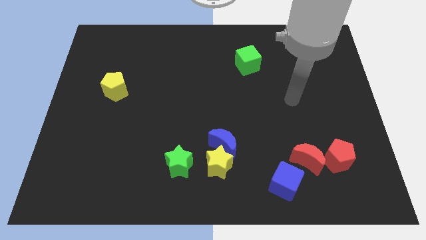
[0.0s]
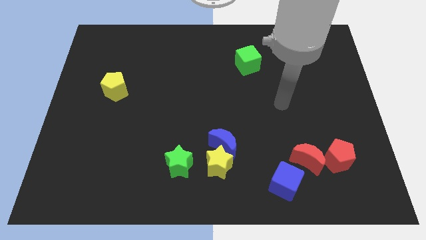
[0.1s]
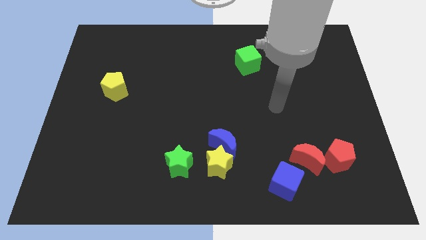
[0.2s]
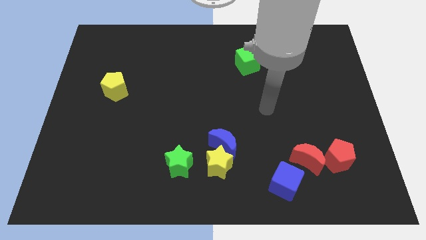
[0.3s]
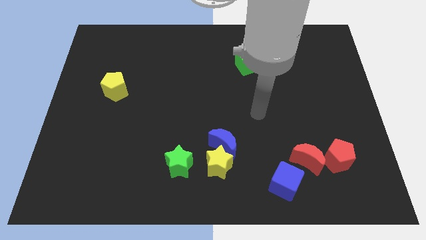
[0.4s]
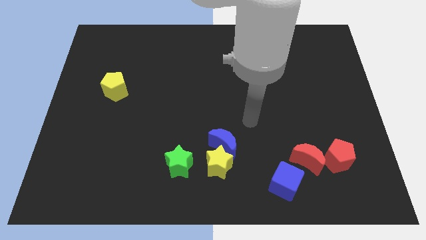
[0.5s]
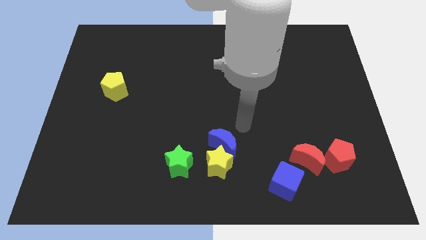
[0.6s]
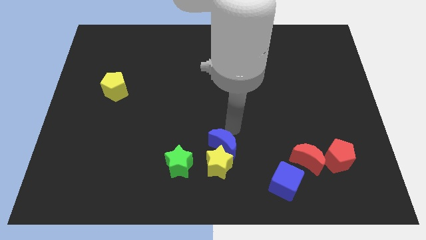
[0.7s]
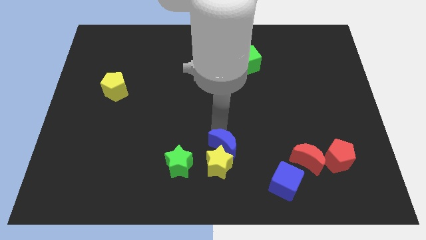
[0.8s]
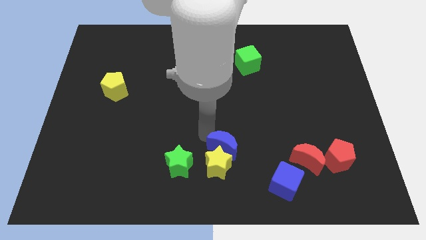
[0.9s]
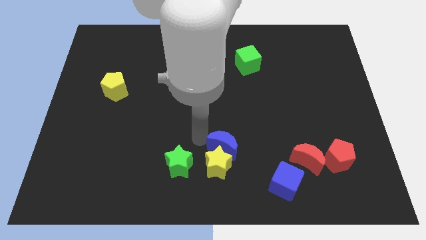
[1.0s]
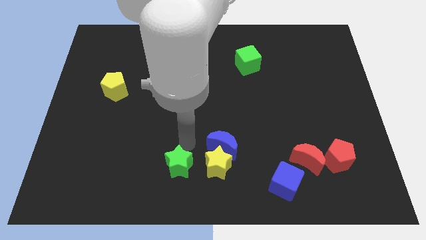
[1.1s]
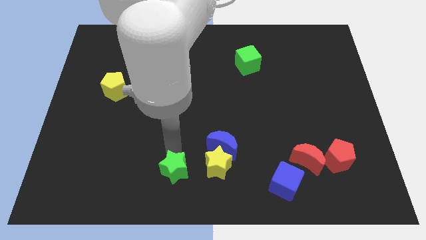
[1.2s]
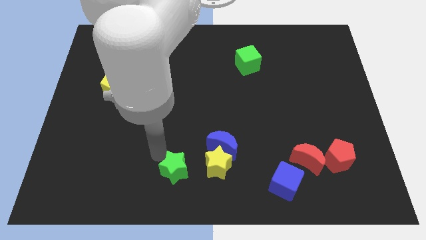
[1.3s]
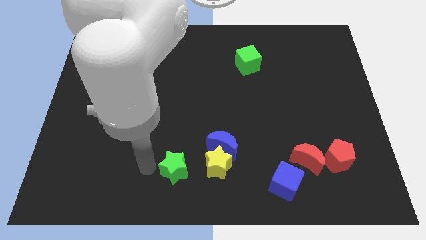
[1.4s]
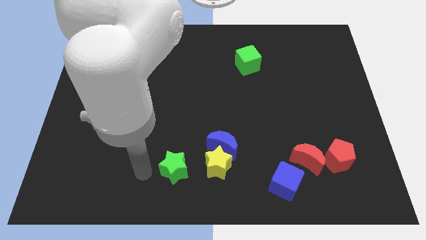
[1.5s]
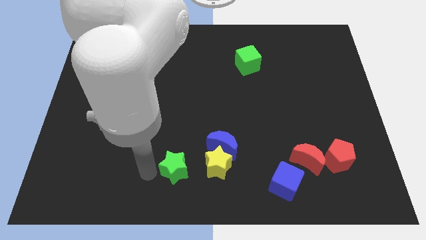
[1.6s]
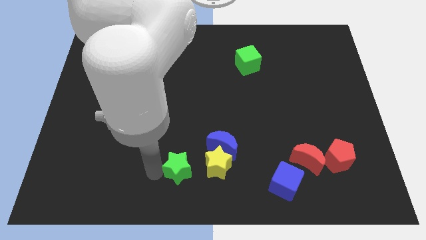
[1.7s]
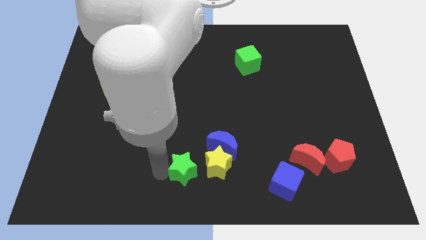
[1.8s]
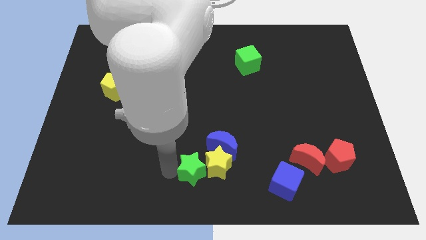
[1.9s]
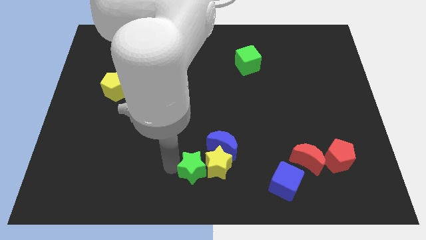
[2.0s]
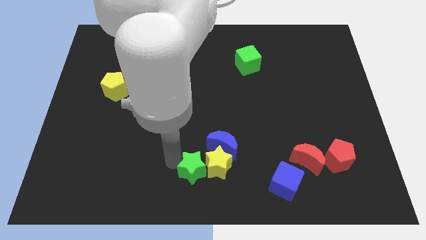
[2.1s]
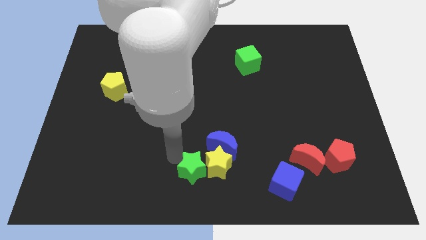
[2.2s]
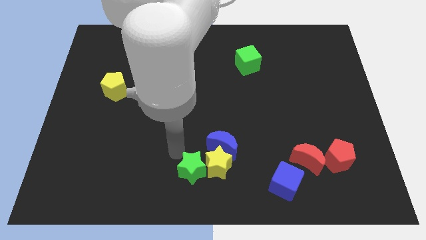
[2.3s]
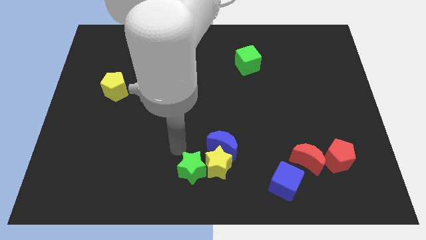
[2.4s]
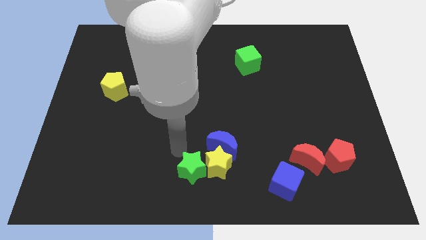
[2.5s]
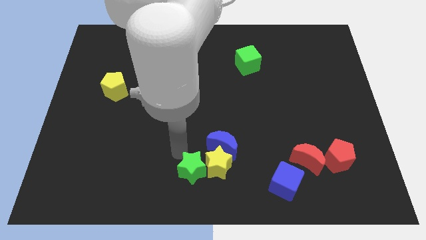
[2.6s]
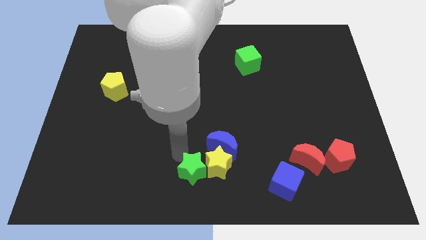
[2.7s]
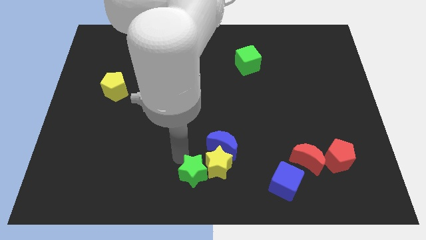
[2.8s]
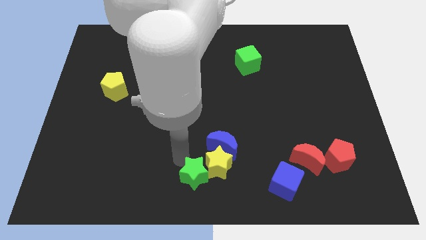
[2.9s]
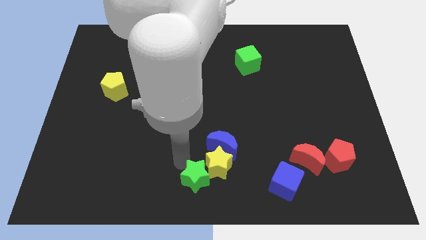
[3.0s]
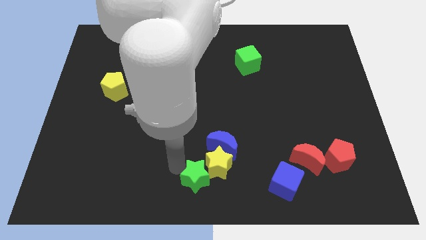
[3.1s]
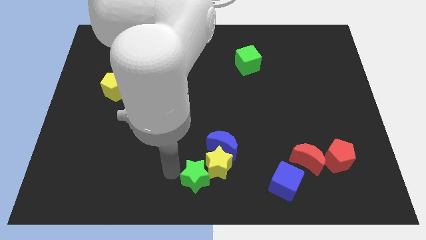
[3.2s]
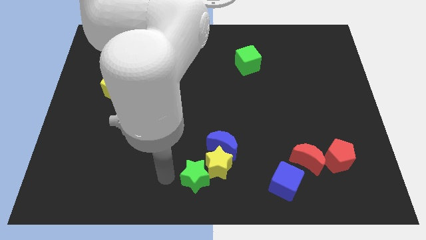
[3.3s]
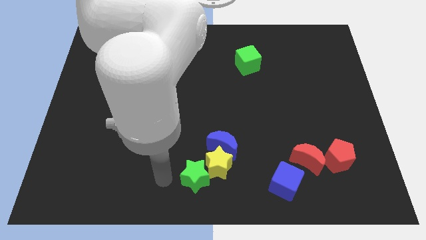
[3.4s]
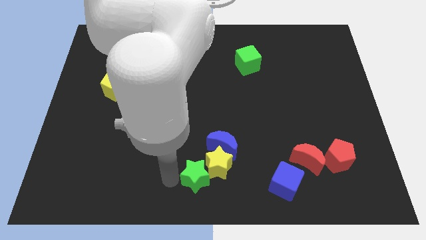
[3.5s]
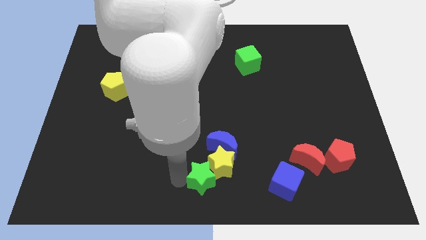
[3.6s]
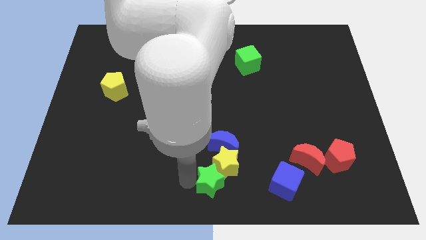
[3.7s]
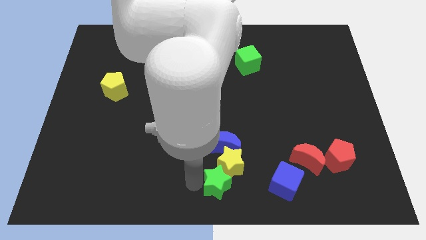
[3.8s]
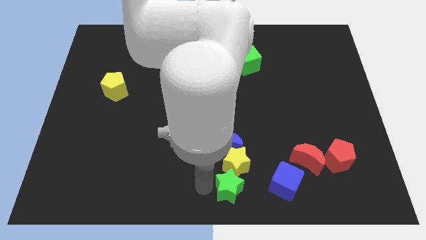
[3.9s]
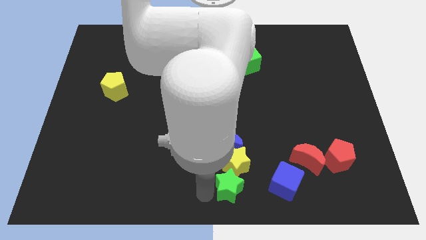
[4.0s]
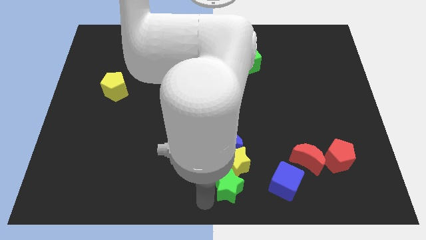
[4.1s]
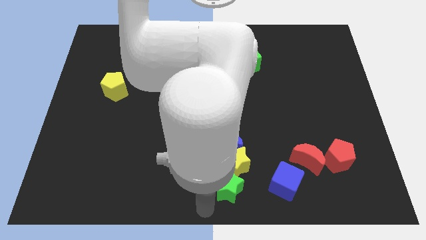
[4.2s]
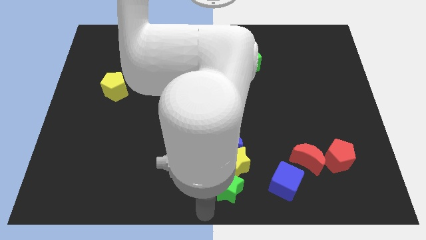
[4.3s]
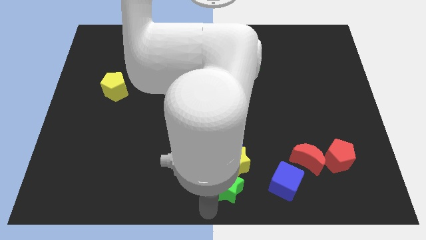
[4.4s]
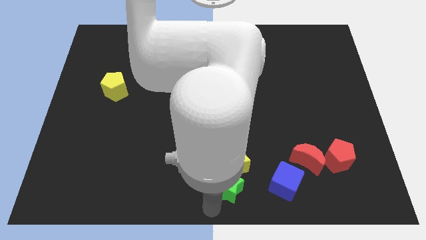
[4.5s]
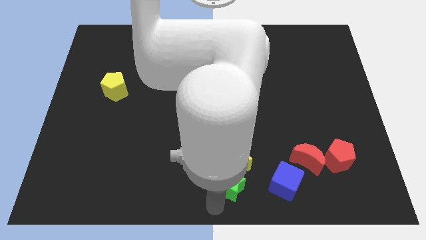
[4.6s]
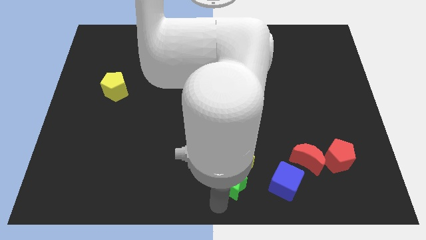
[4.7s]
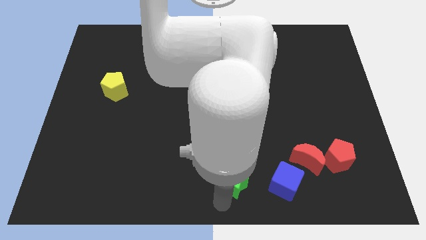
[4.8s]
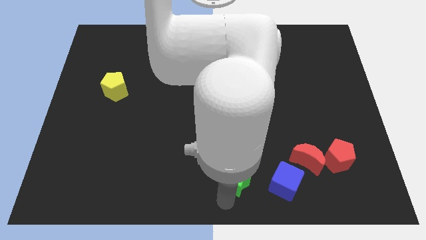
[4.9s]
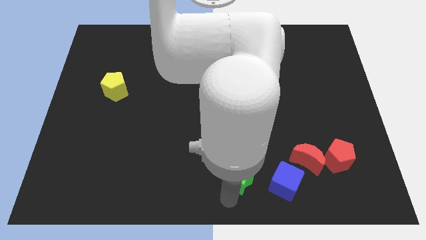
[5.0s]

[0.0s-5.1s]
put the green star to the bottom right of the blue moon

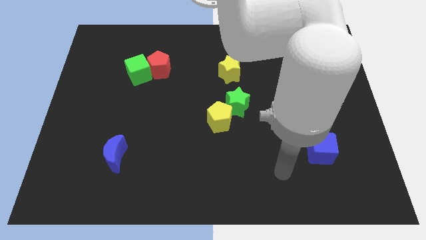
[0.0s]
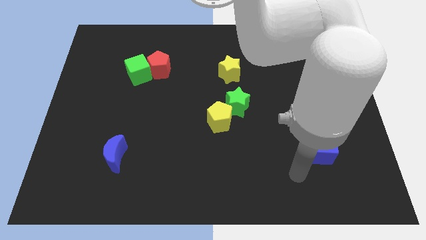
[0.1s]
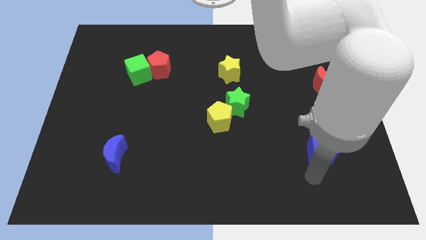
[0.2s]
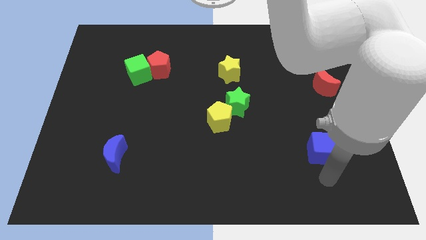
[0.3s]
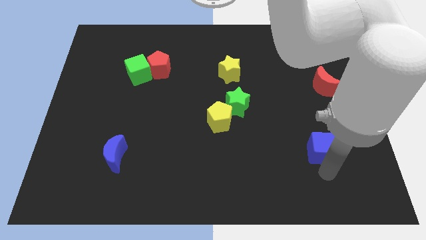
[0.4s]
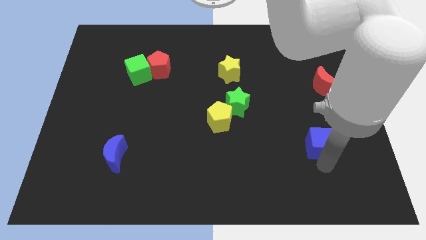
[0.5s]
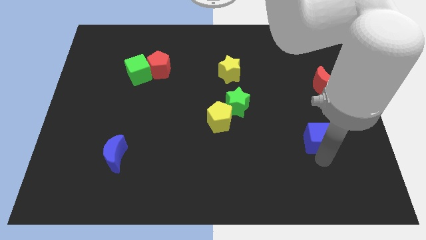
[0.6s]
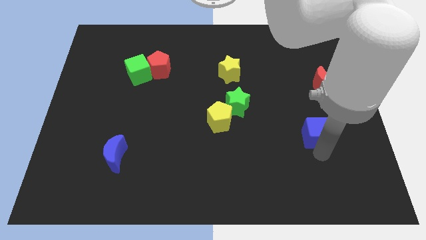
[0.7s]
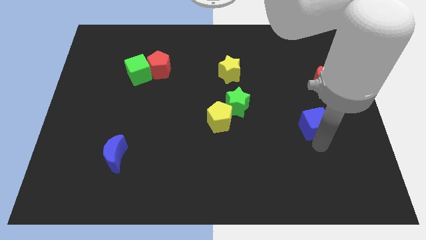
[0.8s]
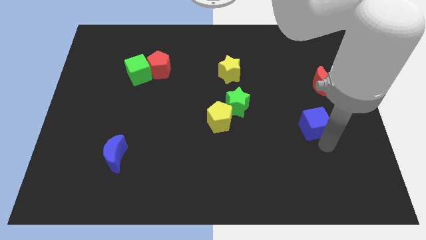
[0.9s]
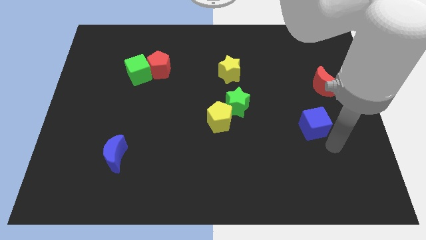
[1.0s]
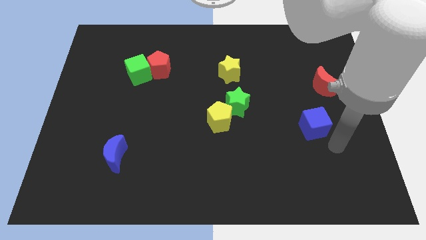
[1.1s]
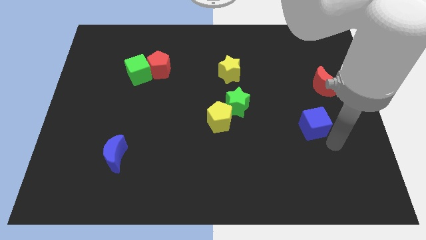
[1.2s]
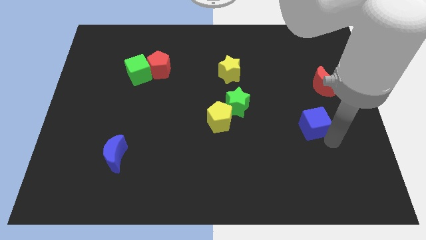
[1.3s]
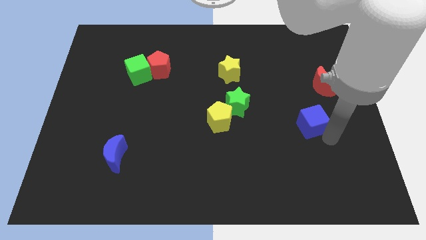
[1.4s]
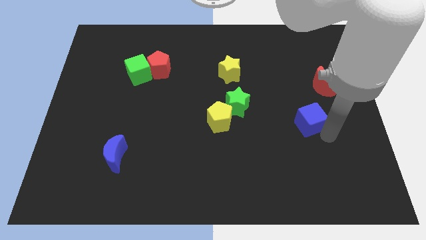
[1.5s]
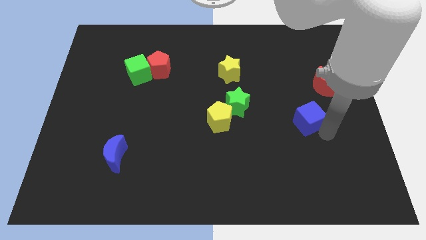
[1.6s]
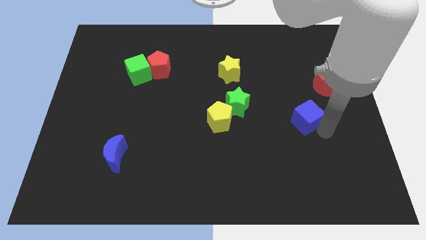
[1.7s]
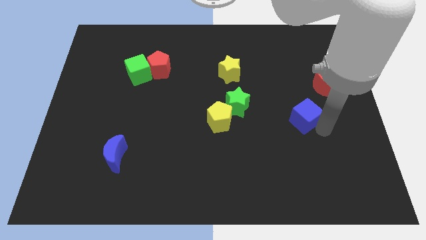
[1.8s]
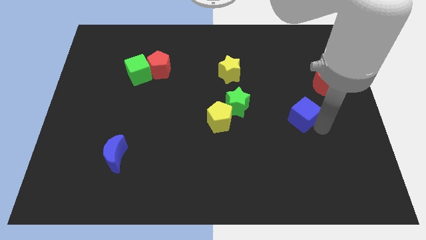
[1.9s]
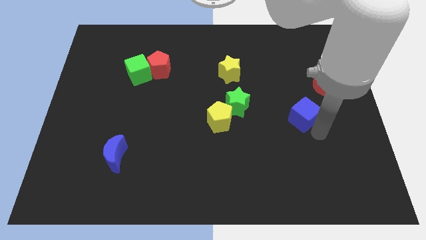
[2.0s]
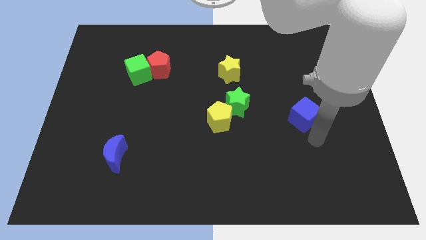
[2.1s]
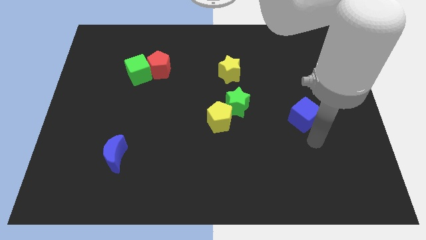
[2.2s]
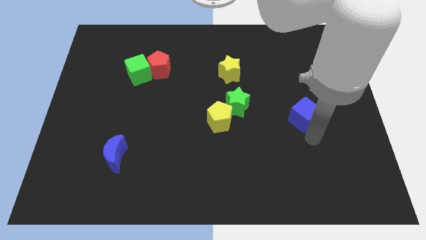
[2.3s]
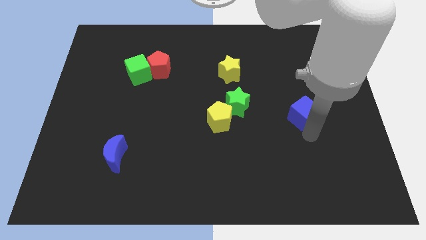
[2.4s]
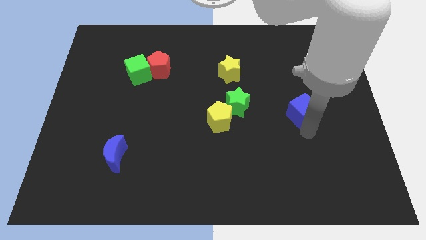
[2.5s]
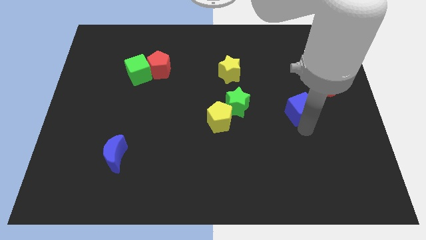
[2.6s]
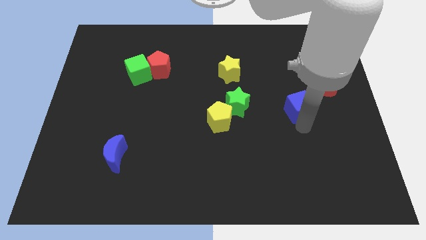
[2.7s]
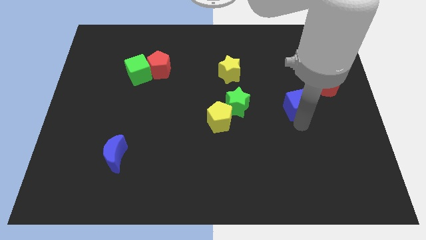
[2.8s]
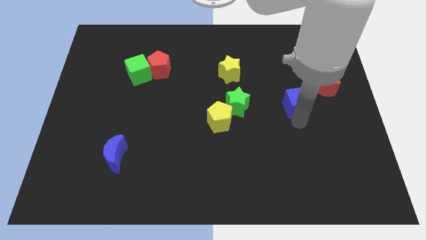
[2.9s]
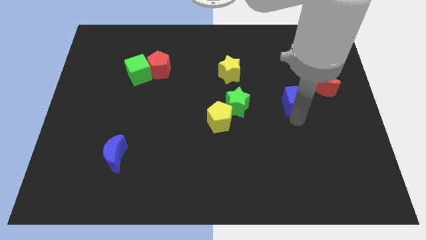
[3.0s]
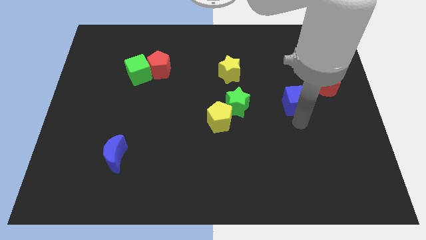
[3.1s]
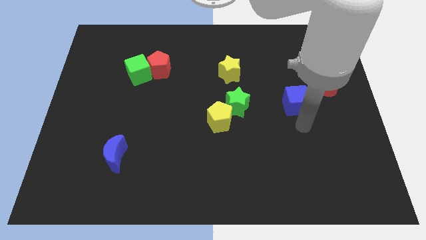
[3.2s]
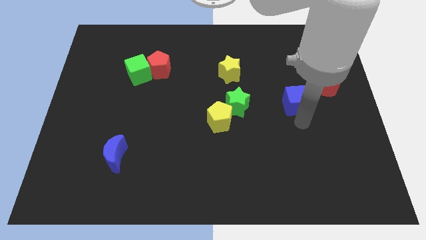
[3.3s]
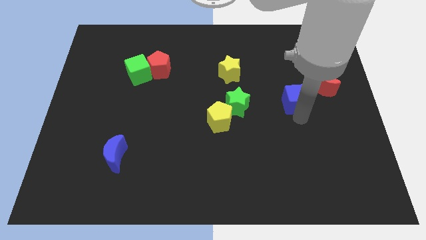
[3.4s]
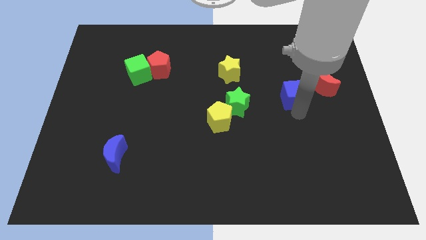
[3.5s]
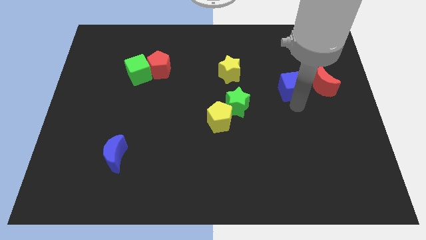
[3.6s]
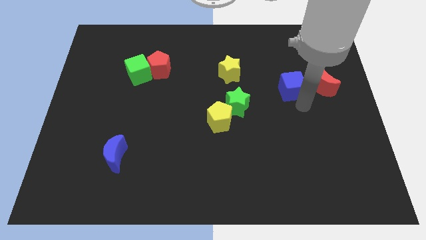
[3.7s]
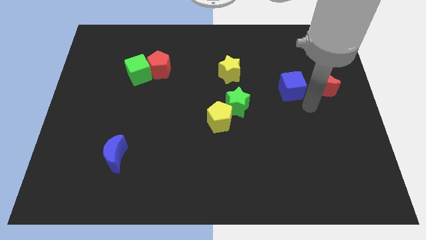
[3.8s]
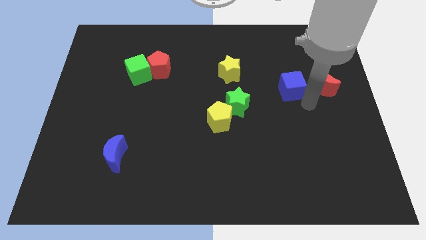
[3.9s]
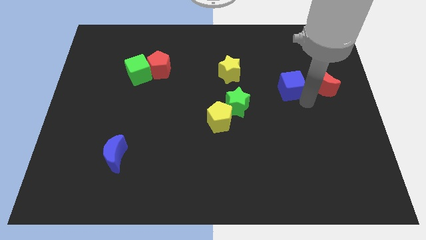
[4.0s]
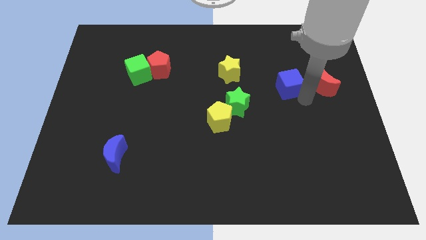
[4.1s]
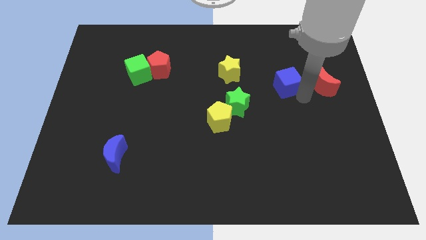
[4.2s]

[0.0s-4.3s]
push the blue cube to the right of the yellow star
